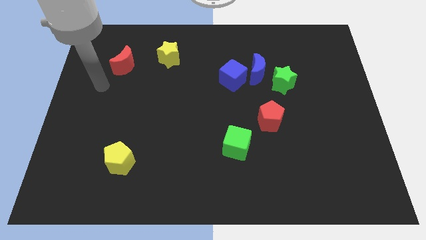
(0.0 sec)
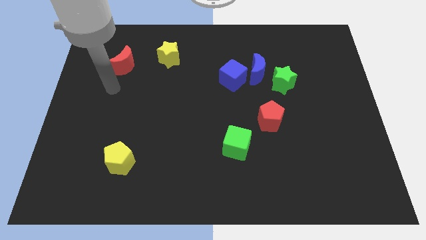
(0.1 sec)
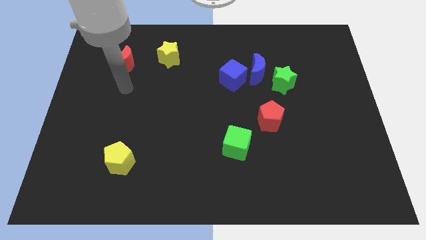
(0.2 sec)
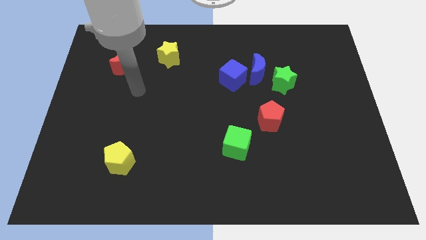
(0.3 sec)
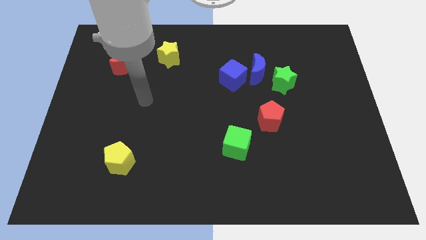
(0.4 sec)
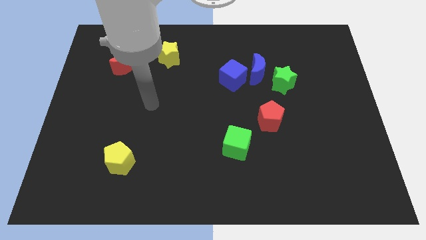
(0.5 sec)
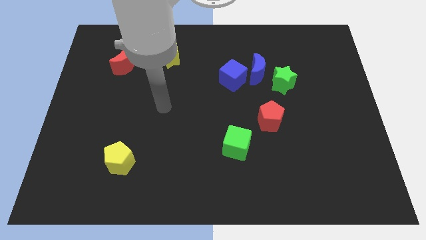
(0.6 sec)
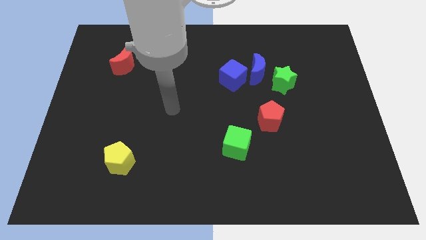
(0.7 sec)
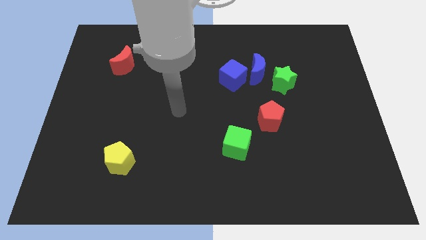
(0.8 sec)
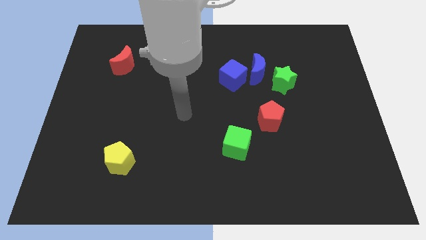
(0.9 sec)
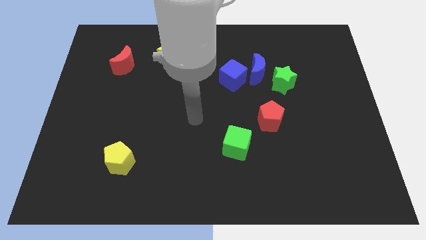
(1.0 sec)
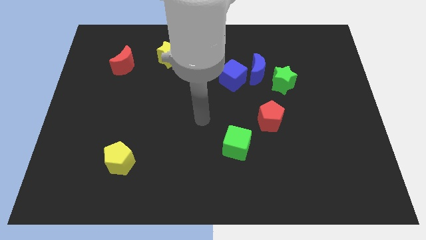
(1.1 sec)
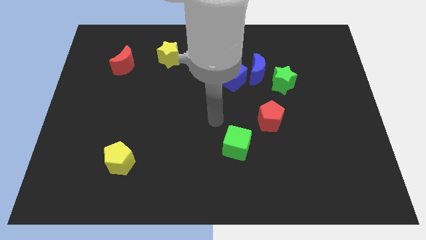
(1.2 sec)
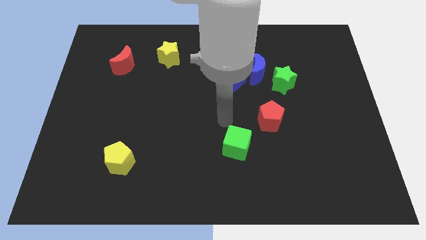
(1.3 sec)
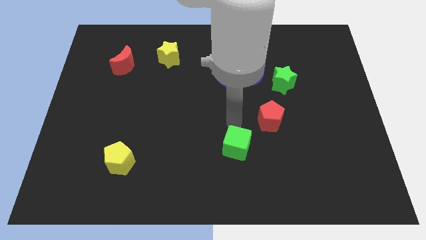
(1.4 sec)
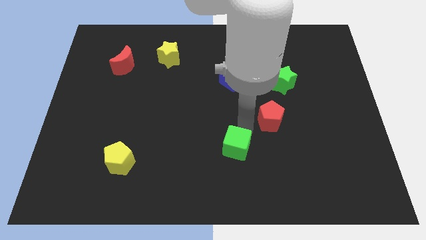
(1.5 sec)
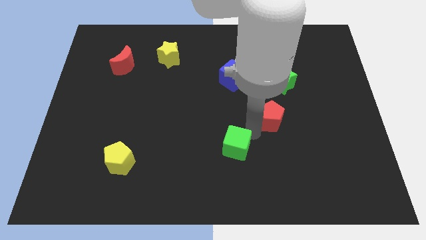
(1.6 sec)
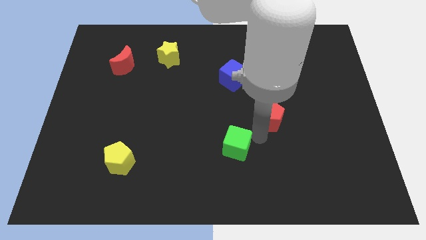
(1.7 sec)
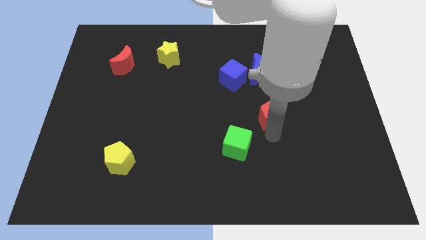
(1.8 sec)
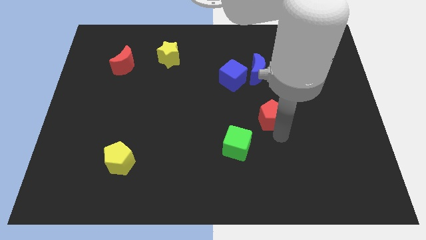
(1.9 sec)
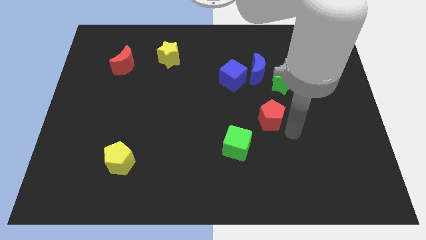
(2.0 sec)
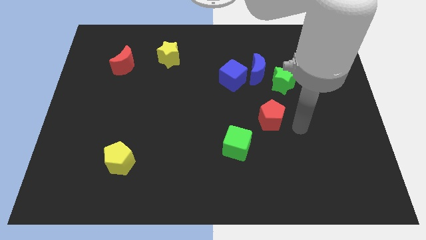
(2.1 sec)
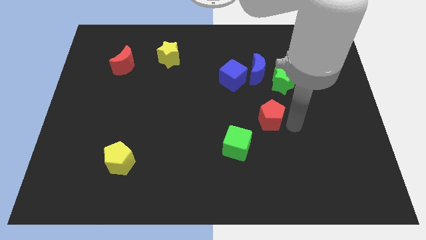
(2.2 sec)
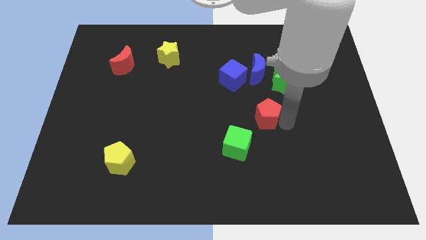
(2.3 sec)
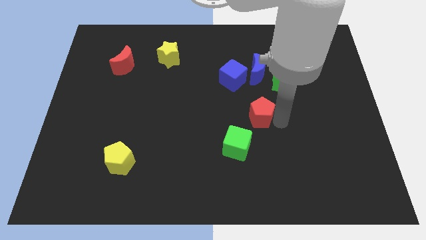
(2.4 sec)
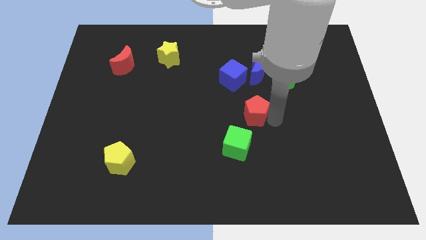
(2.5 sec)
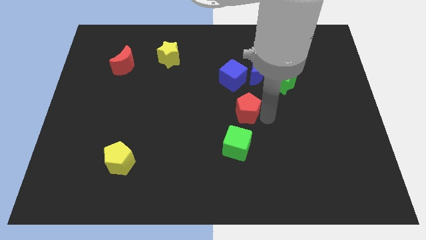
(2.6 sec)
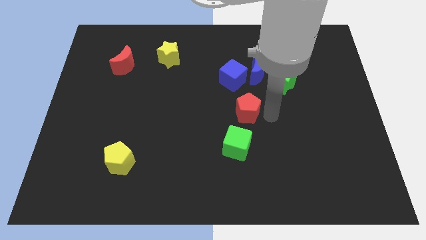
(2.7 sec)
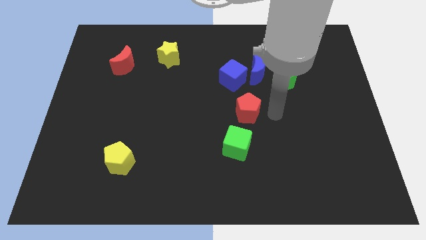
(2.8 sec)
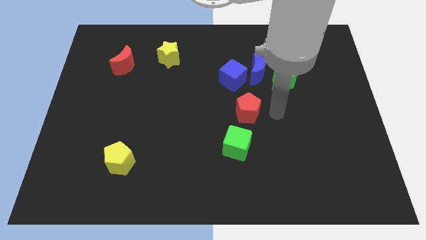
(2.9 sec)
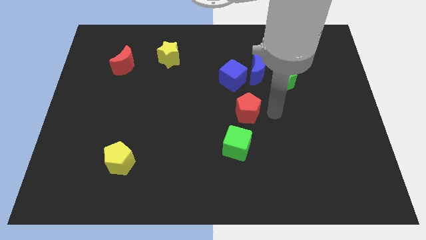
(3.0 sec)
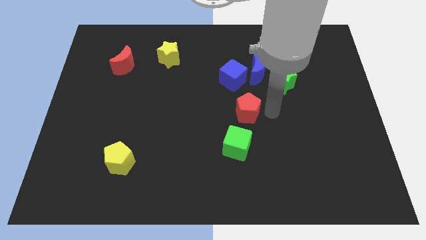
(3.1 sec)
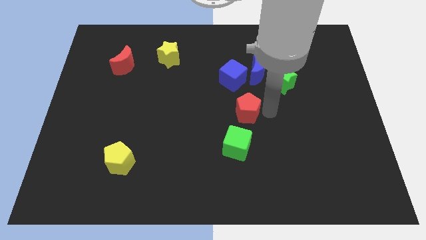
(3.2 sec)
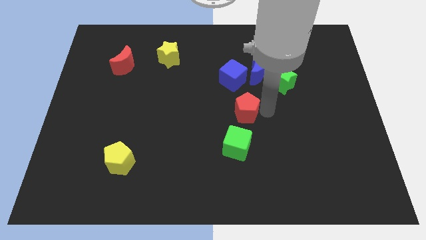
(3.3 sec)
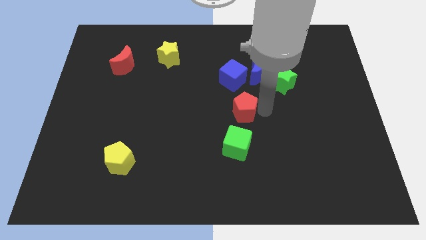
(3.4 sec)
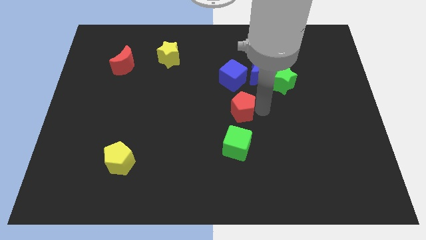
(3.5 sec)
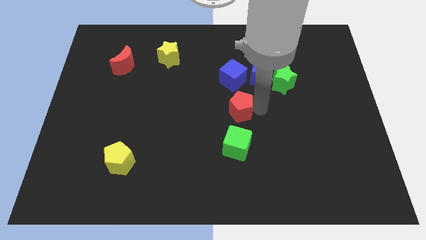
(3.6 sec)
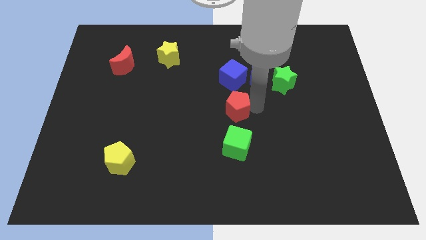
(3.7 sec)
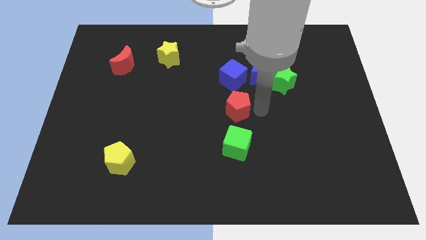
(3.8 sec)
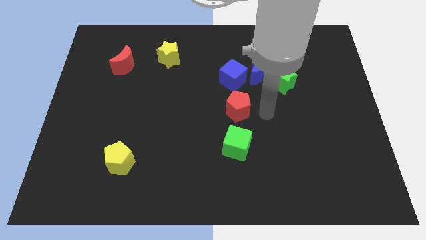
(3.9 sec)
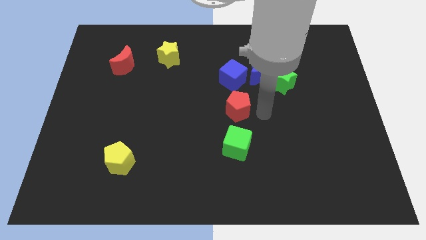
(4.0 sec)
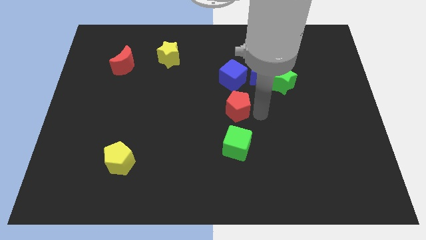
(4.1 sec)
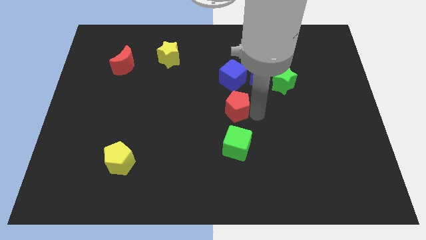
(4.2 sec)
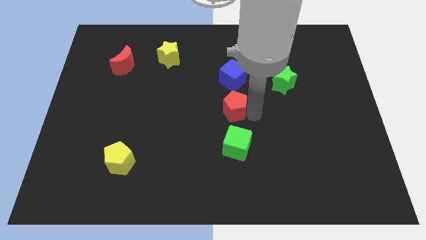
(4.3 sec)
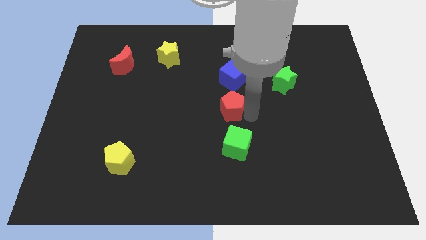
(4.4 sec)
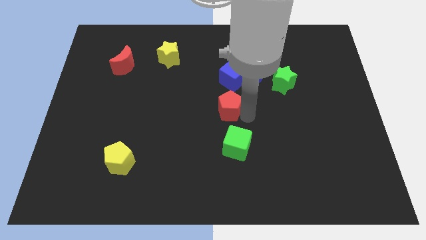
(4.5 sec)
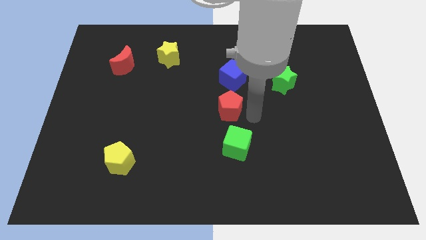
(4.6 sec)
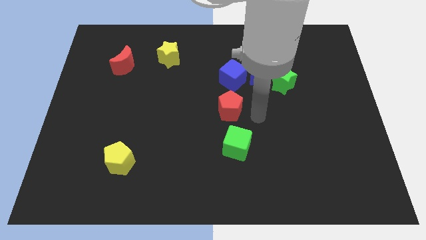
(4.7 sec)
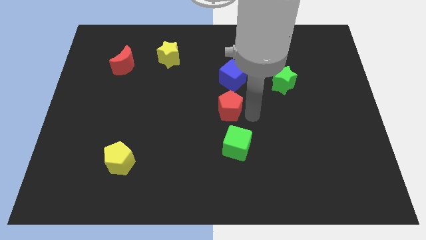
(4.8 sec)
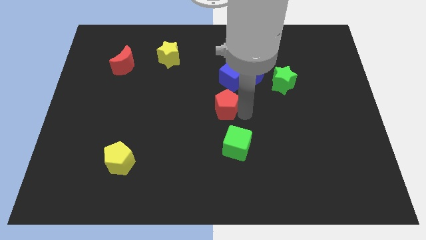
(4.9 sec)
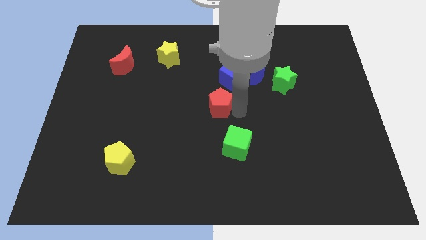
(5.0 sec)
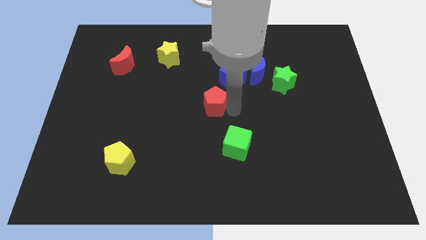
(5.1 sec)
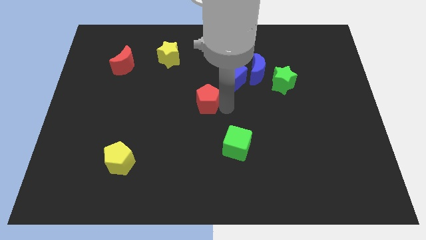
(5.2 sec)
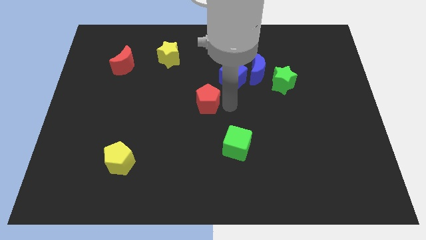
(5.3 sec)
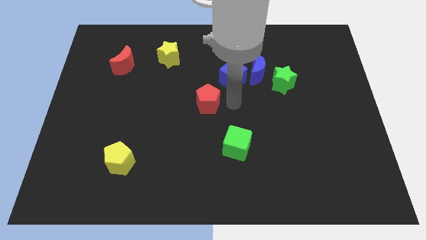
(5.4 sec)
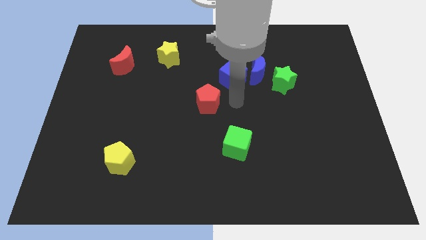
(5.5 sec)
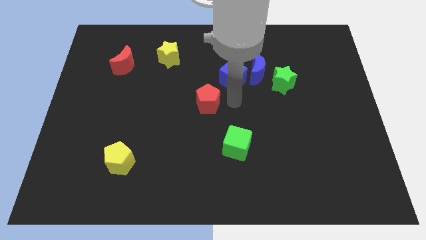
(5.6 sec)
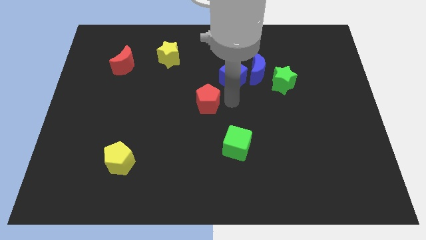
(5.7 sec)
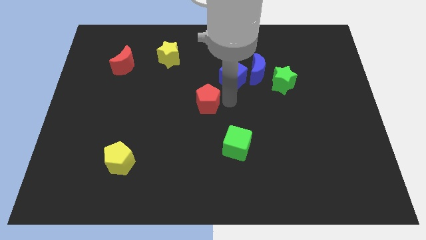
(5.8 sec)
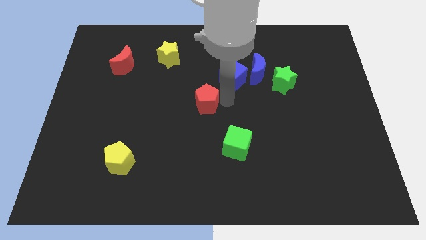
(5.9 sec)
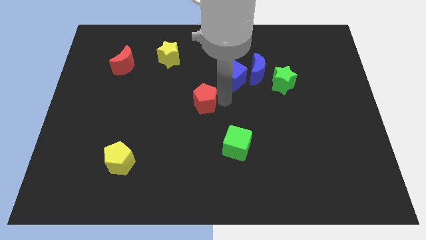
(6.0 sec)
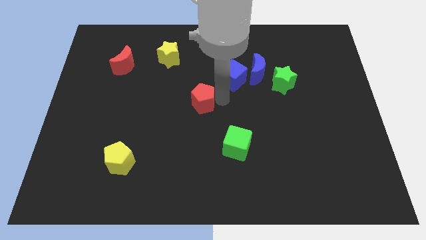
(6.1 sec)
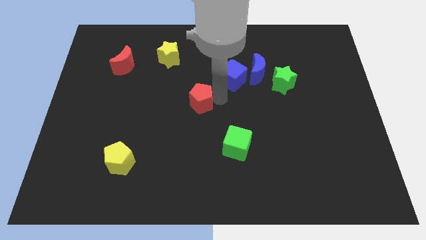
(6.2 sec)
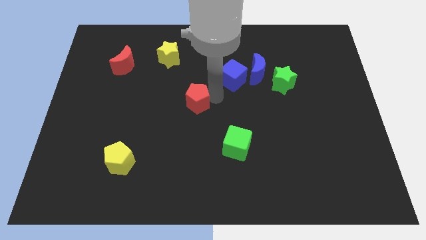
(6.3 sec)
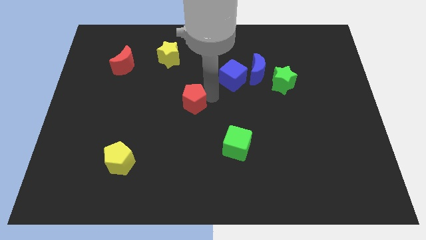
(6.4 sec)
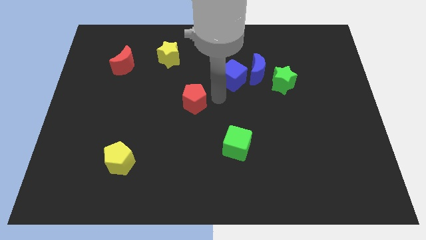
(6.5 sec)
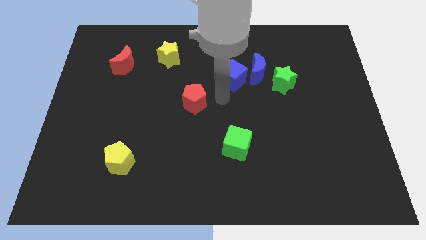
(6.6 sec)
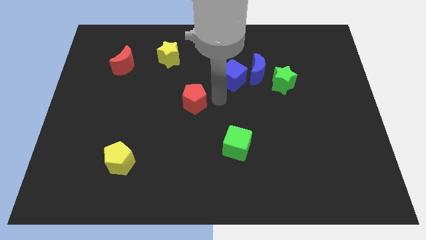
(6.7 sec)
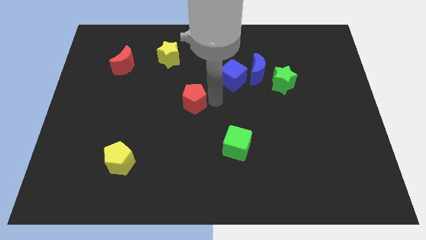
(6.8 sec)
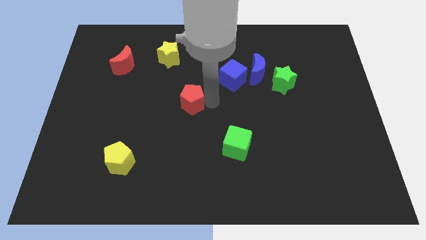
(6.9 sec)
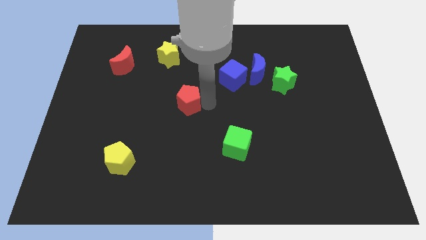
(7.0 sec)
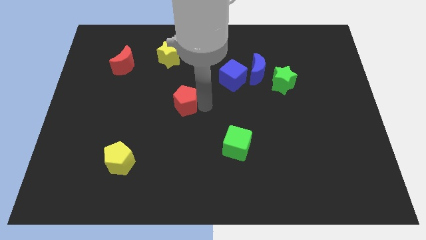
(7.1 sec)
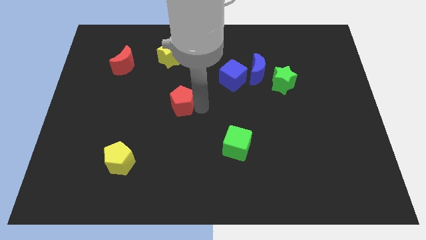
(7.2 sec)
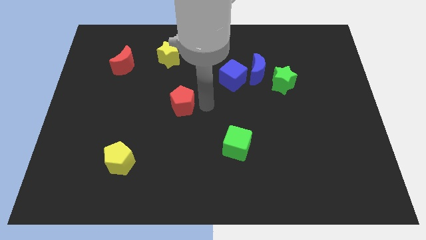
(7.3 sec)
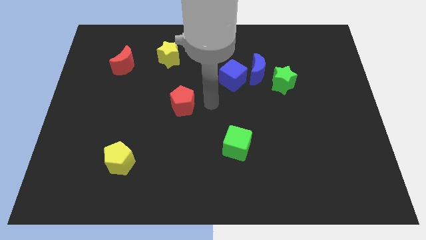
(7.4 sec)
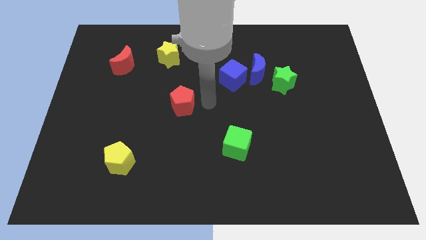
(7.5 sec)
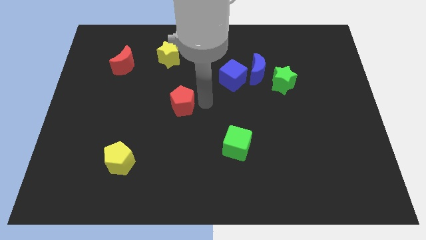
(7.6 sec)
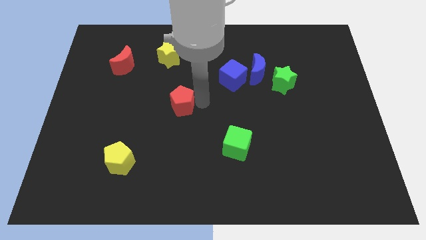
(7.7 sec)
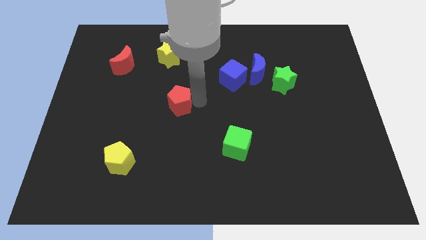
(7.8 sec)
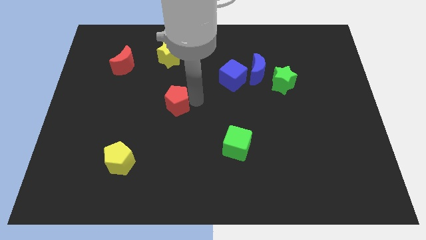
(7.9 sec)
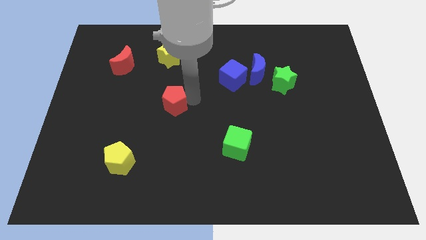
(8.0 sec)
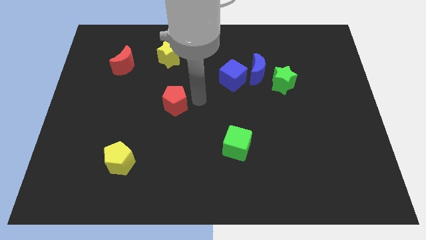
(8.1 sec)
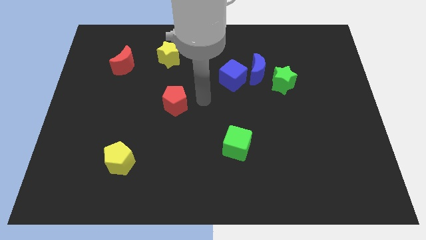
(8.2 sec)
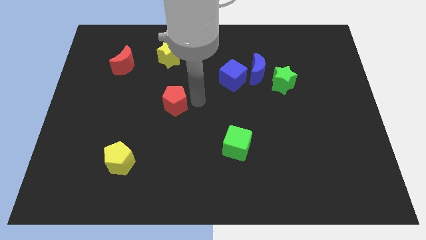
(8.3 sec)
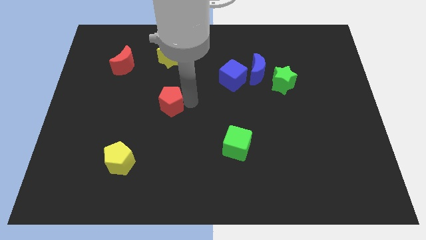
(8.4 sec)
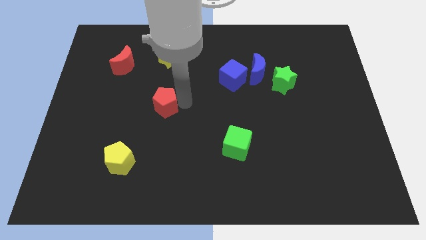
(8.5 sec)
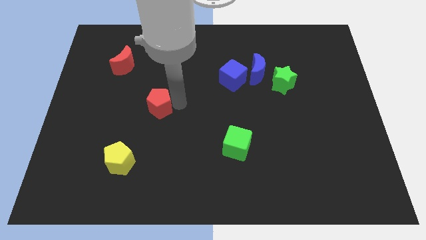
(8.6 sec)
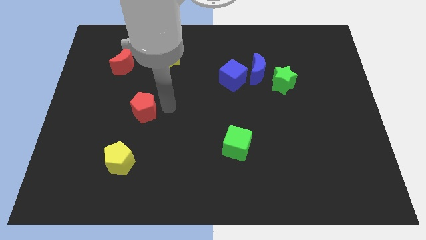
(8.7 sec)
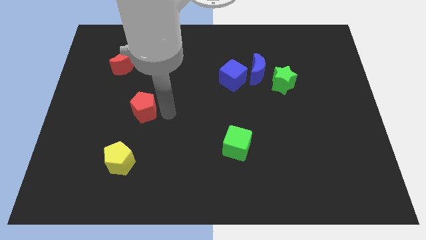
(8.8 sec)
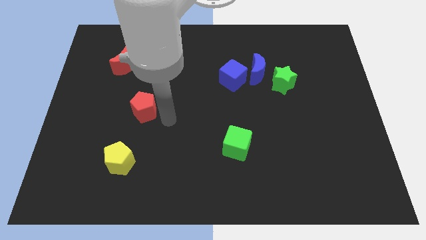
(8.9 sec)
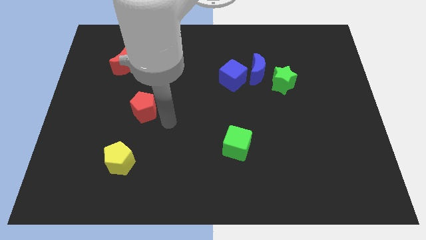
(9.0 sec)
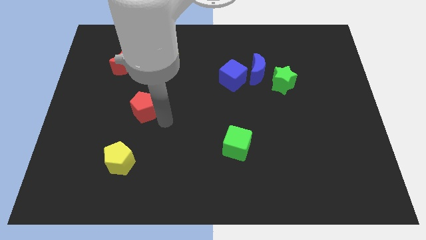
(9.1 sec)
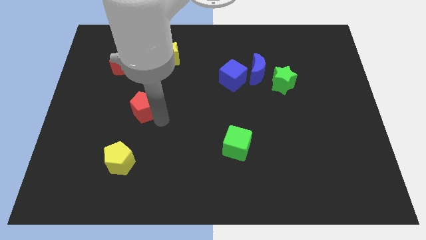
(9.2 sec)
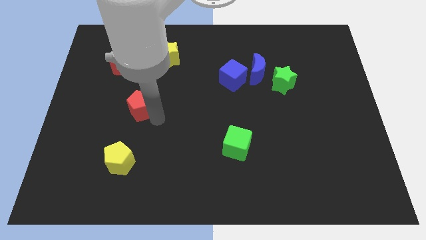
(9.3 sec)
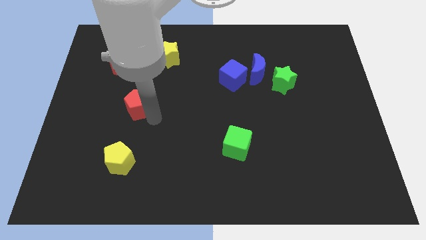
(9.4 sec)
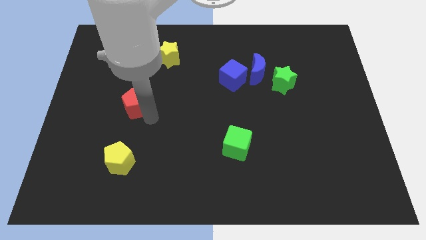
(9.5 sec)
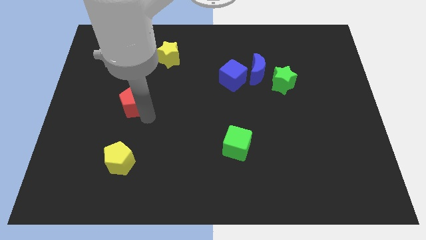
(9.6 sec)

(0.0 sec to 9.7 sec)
put the red pentagon below the red moon
